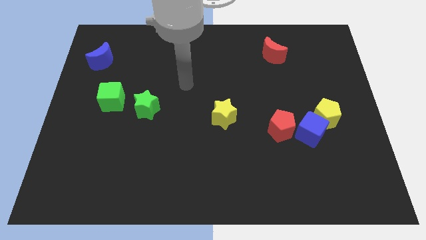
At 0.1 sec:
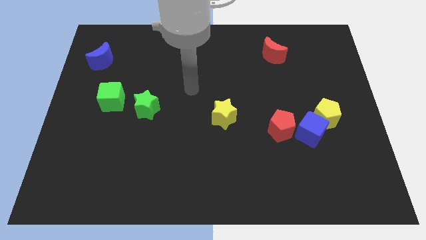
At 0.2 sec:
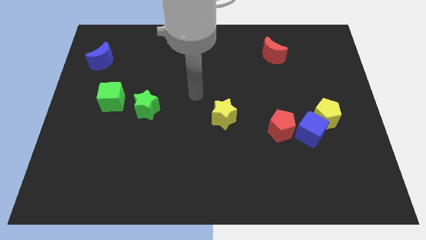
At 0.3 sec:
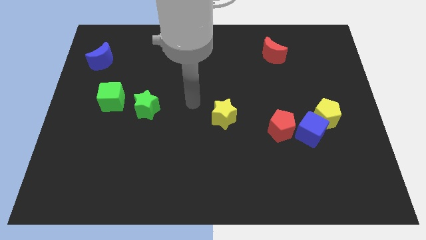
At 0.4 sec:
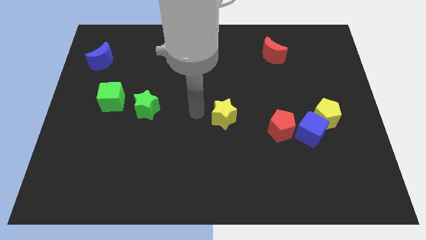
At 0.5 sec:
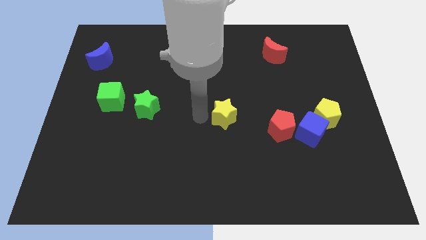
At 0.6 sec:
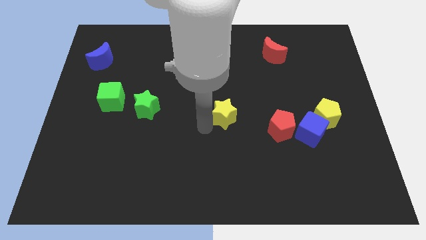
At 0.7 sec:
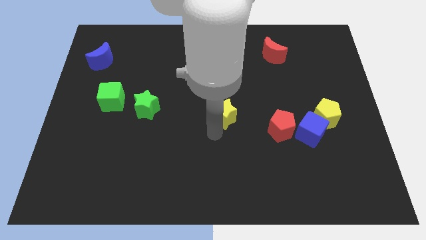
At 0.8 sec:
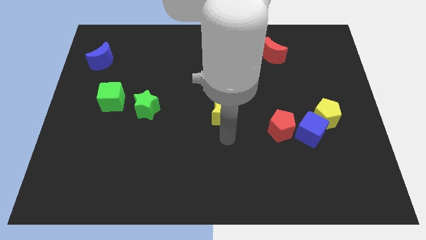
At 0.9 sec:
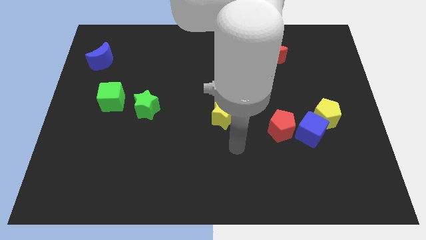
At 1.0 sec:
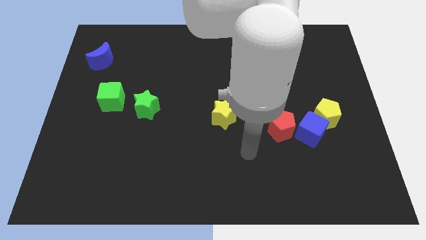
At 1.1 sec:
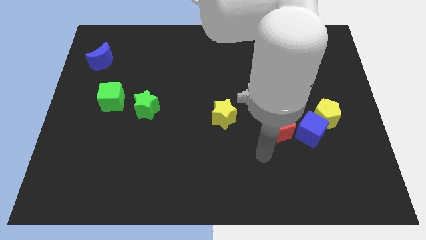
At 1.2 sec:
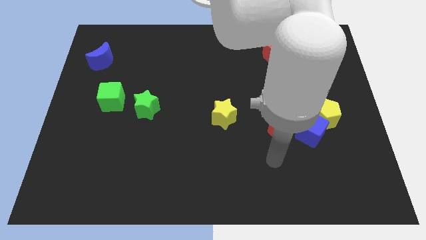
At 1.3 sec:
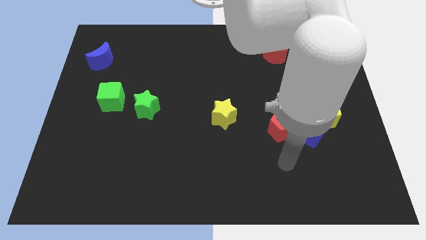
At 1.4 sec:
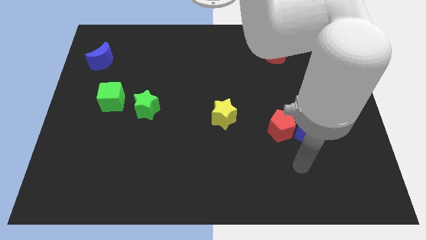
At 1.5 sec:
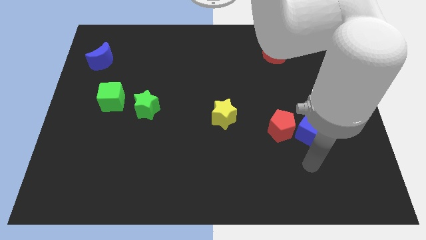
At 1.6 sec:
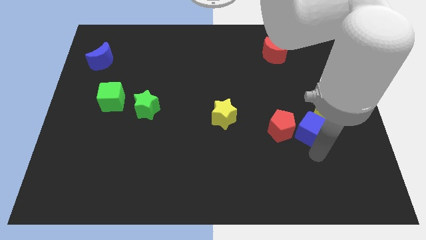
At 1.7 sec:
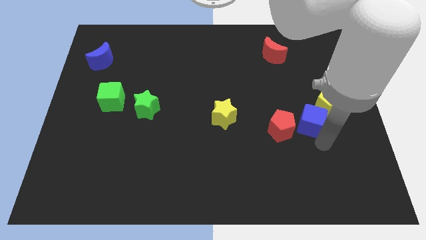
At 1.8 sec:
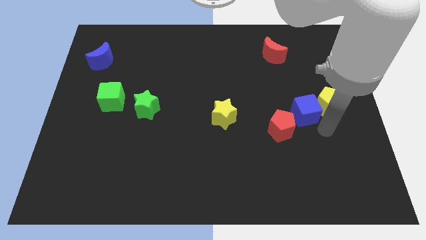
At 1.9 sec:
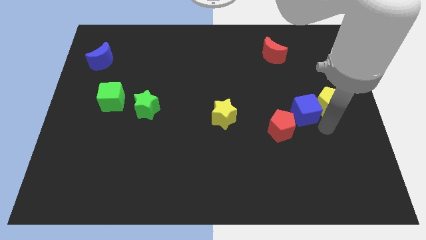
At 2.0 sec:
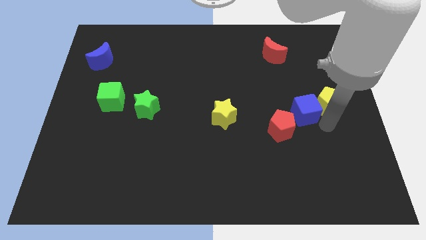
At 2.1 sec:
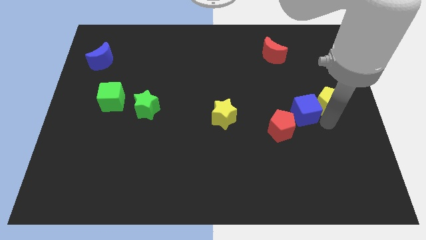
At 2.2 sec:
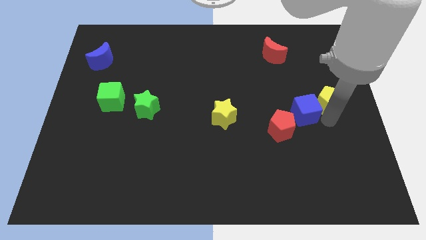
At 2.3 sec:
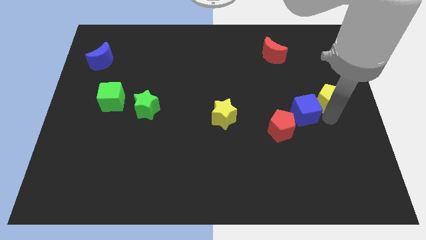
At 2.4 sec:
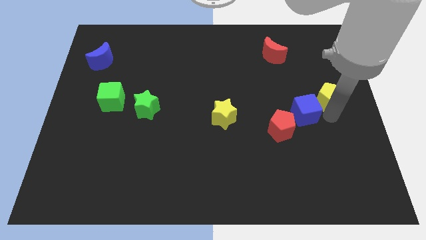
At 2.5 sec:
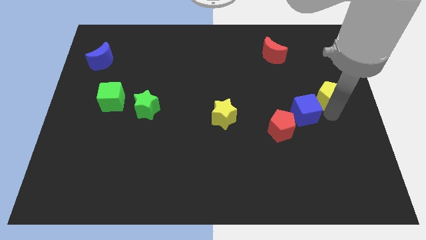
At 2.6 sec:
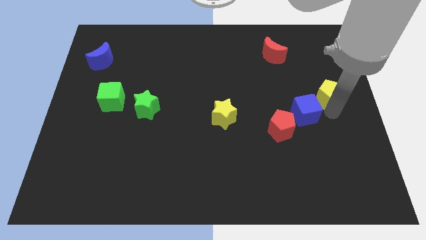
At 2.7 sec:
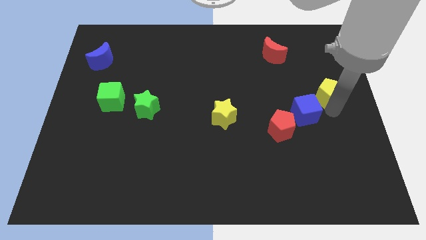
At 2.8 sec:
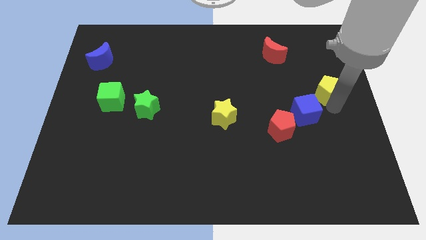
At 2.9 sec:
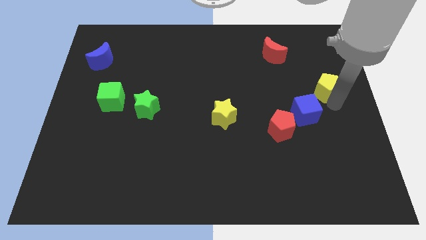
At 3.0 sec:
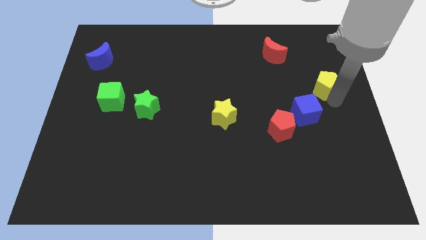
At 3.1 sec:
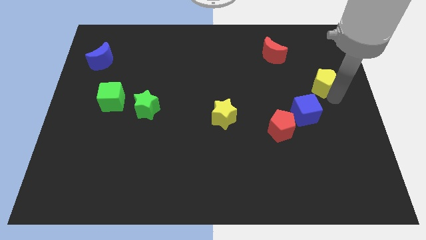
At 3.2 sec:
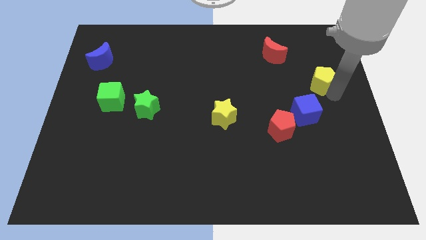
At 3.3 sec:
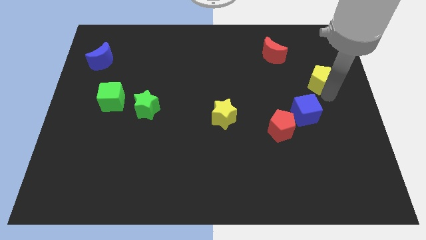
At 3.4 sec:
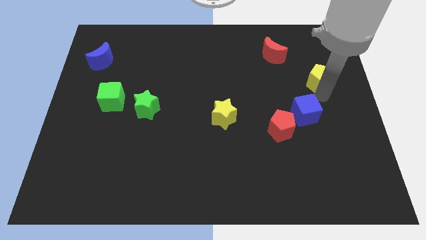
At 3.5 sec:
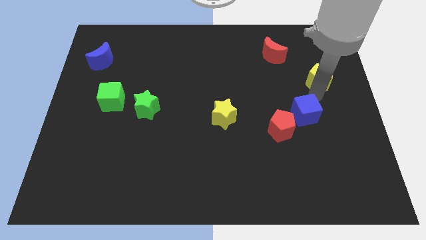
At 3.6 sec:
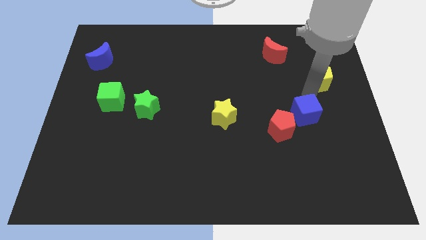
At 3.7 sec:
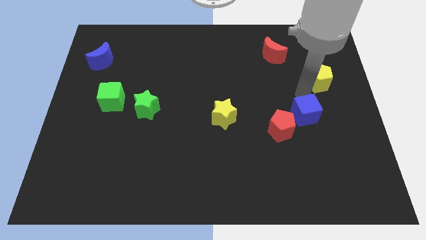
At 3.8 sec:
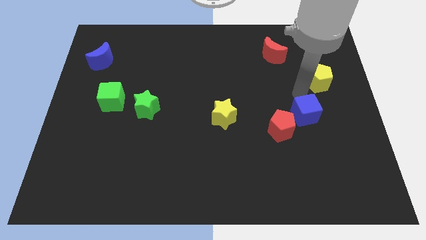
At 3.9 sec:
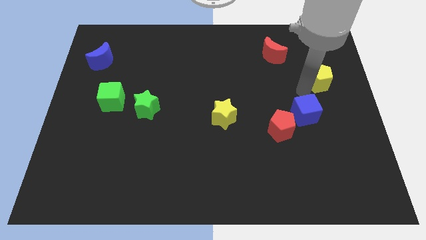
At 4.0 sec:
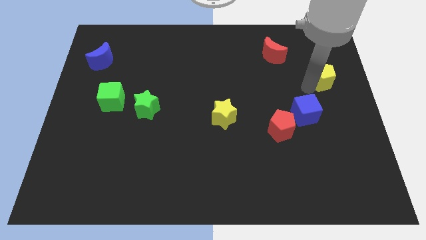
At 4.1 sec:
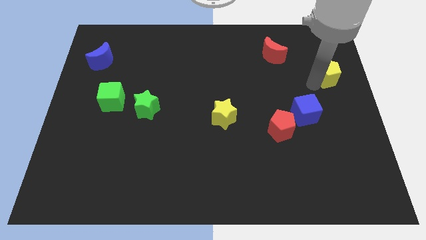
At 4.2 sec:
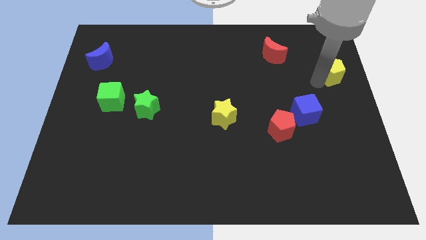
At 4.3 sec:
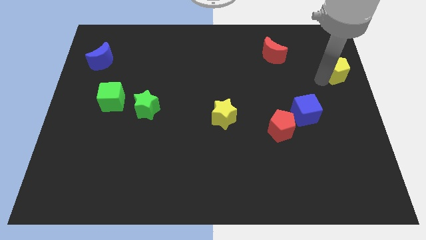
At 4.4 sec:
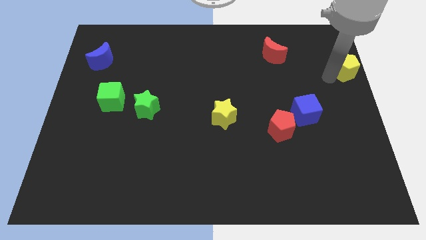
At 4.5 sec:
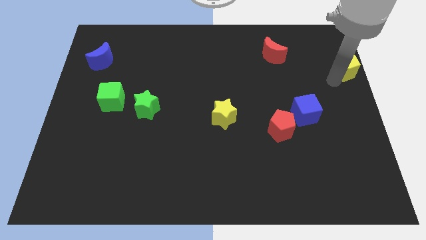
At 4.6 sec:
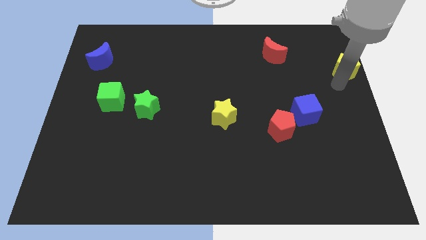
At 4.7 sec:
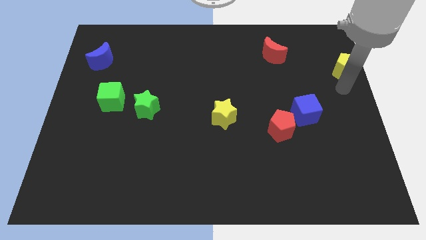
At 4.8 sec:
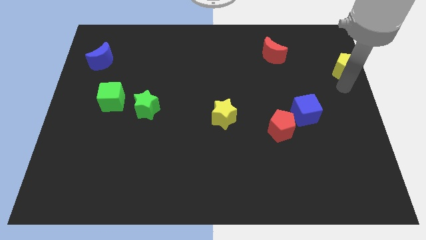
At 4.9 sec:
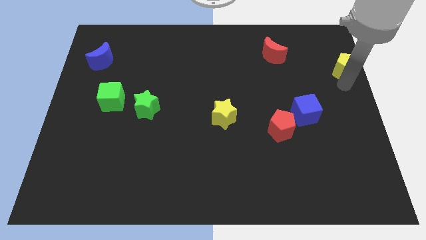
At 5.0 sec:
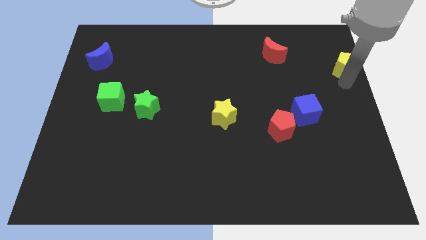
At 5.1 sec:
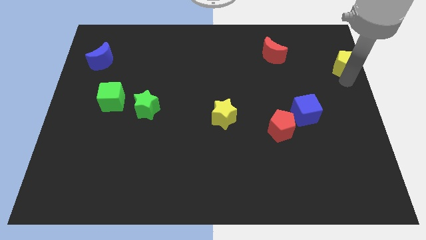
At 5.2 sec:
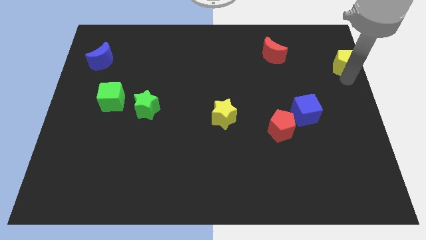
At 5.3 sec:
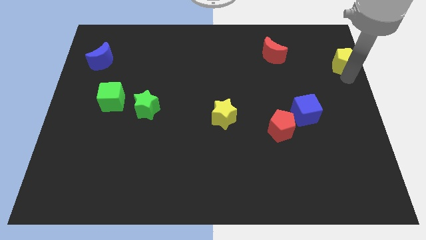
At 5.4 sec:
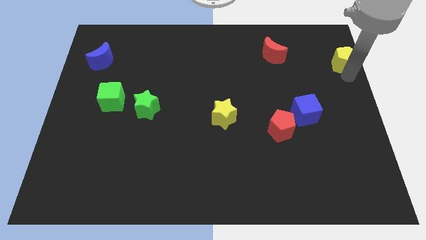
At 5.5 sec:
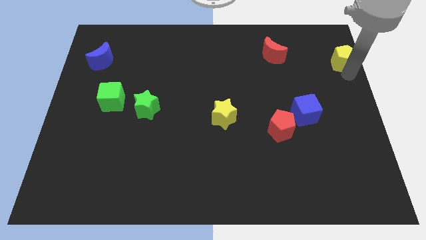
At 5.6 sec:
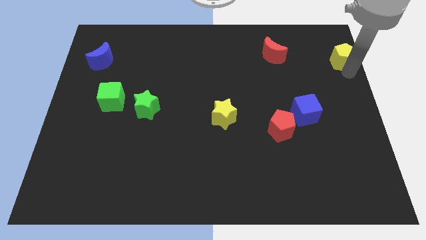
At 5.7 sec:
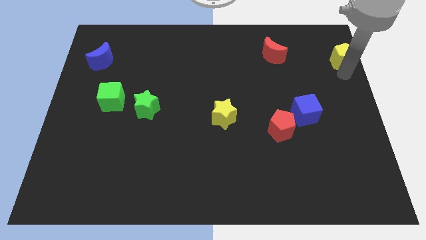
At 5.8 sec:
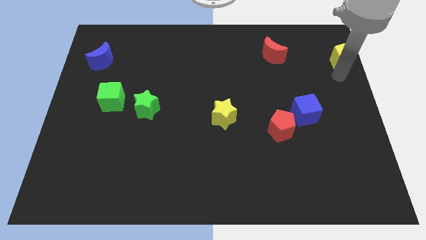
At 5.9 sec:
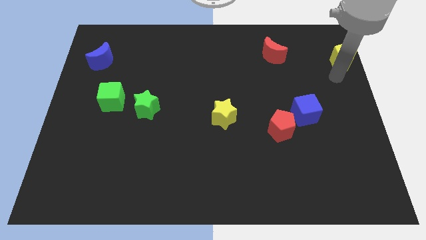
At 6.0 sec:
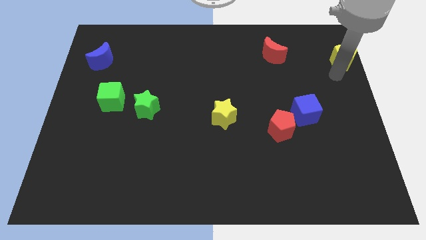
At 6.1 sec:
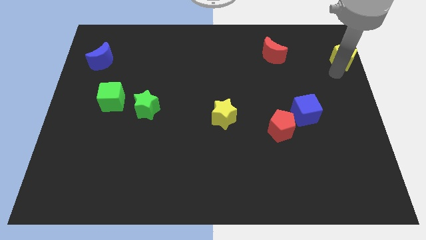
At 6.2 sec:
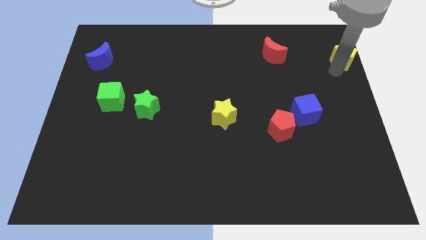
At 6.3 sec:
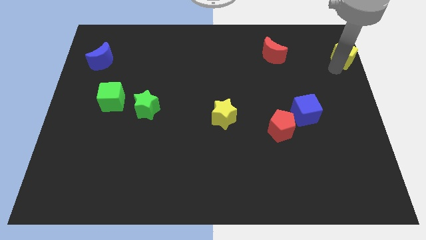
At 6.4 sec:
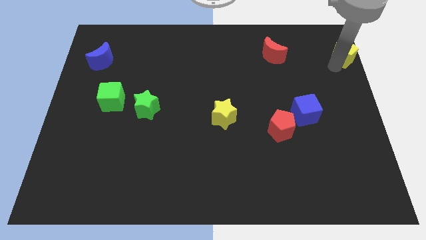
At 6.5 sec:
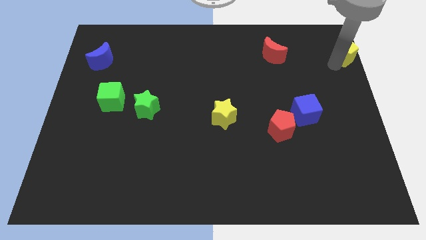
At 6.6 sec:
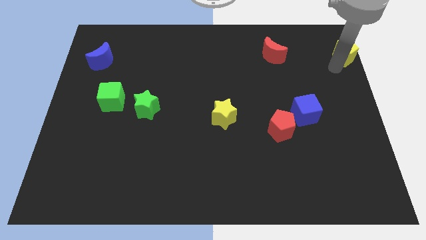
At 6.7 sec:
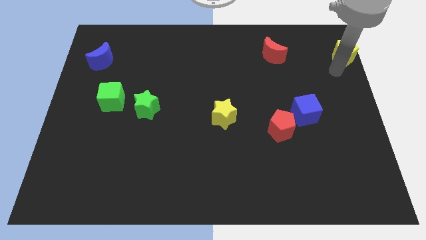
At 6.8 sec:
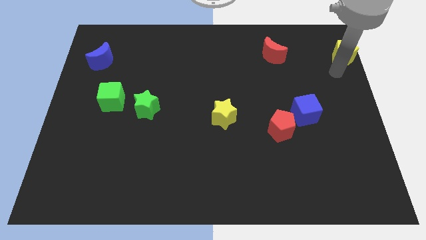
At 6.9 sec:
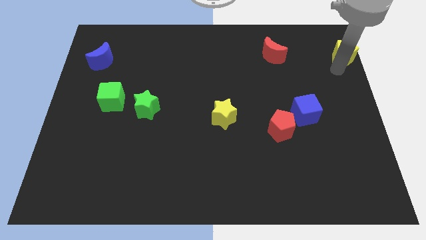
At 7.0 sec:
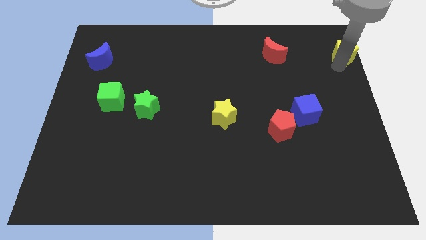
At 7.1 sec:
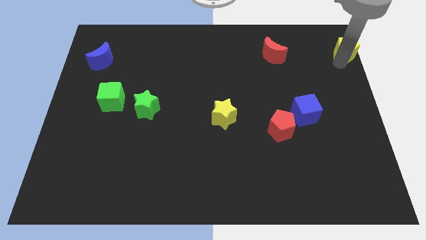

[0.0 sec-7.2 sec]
put the yellow pentagon to the top right corner

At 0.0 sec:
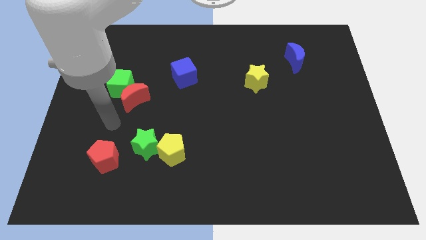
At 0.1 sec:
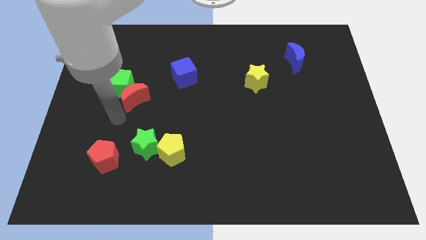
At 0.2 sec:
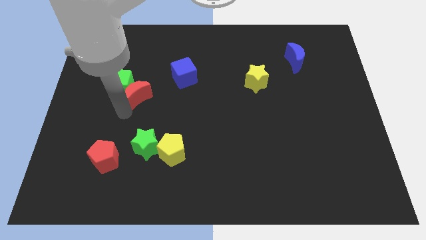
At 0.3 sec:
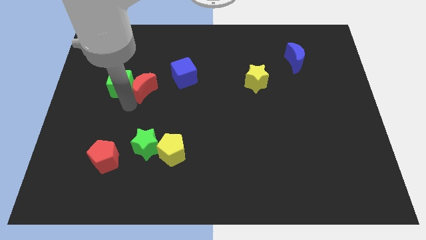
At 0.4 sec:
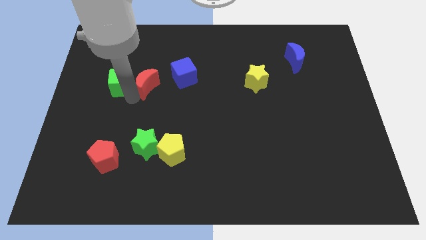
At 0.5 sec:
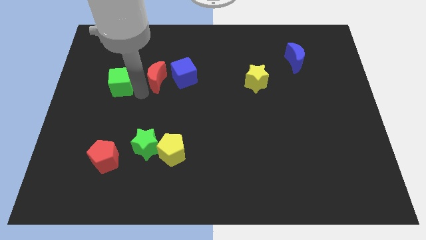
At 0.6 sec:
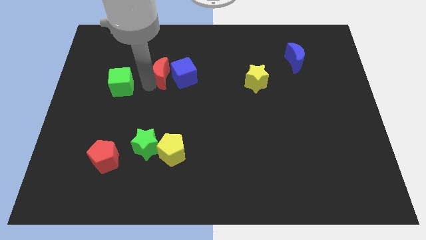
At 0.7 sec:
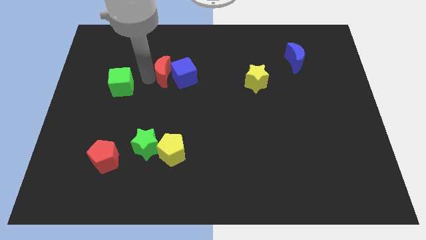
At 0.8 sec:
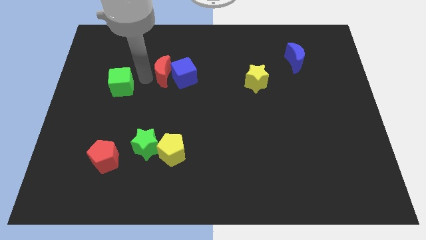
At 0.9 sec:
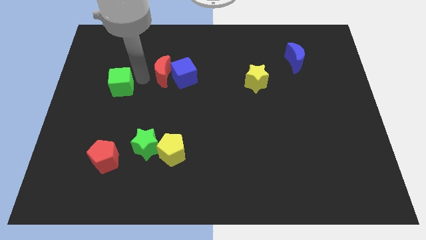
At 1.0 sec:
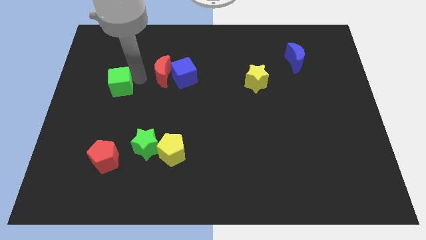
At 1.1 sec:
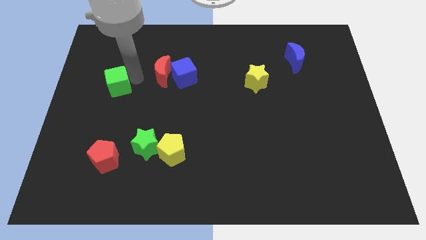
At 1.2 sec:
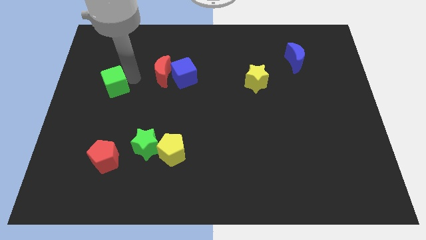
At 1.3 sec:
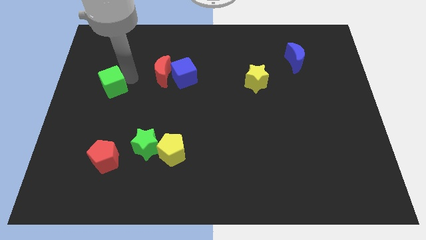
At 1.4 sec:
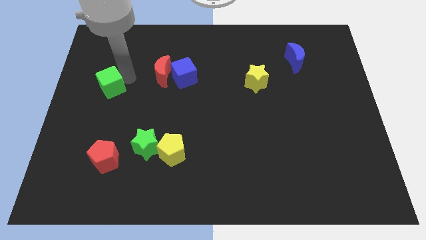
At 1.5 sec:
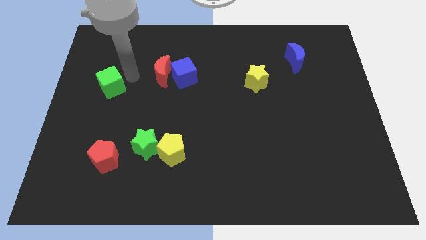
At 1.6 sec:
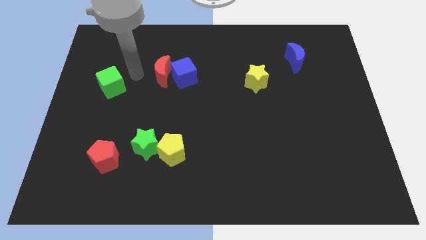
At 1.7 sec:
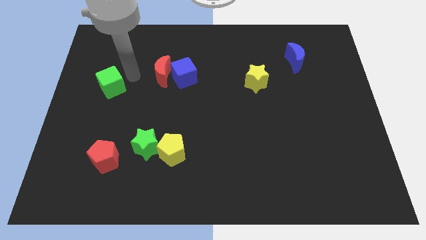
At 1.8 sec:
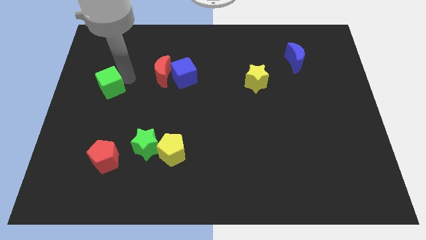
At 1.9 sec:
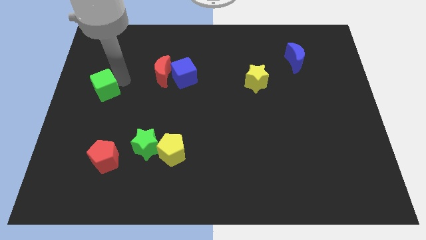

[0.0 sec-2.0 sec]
push the green cube to the center left
